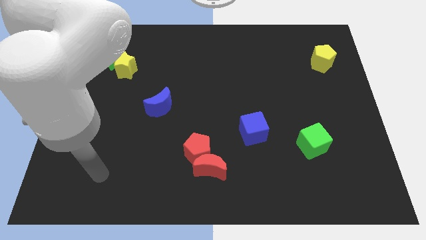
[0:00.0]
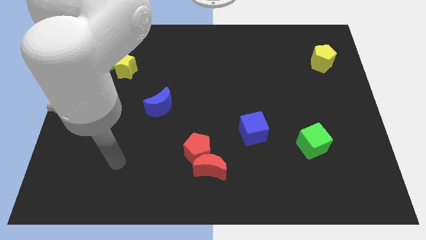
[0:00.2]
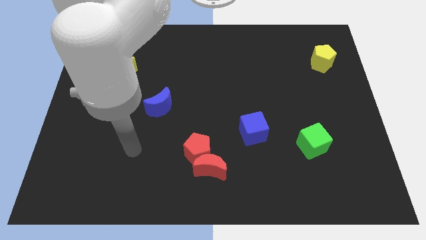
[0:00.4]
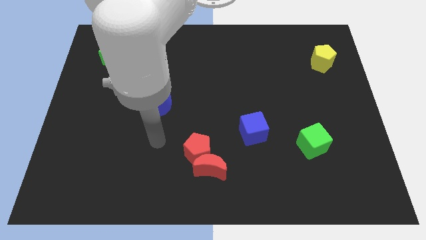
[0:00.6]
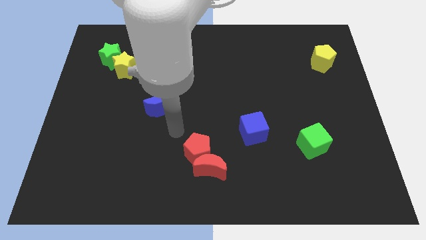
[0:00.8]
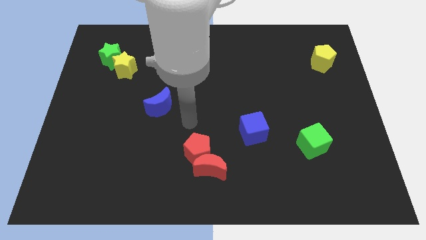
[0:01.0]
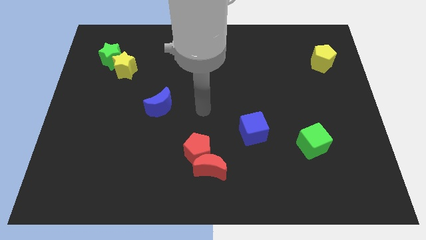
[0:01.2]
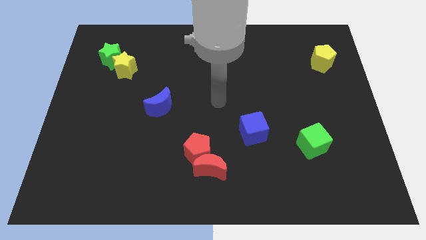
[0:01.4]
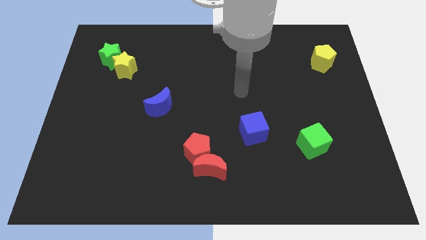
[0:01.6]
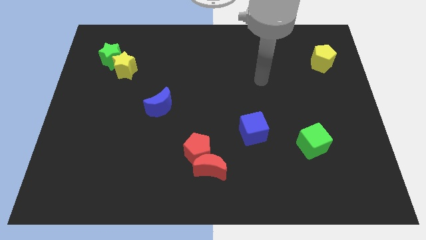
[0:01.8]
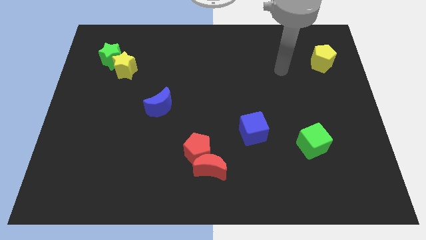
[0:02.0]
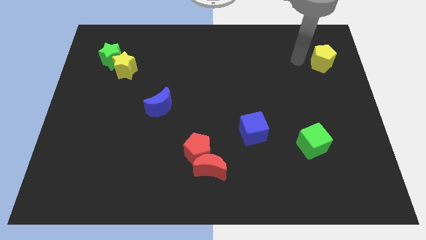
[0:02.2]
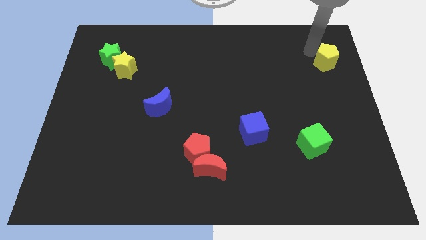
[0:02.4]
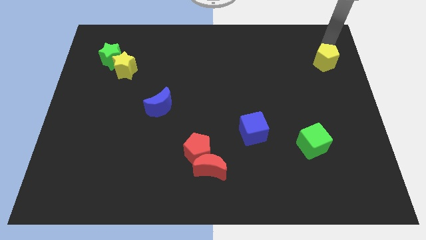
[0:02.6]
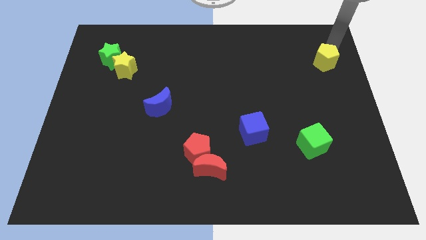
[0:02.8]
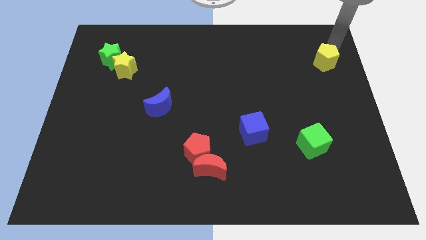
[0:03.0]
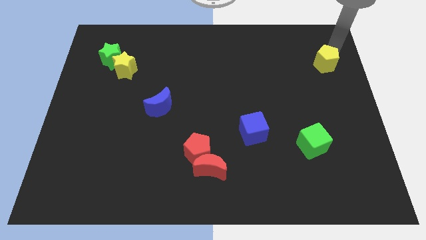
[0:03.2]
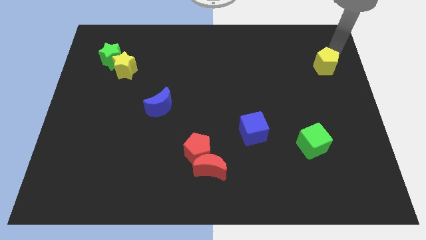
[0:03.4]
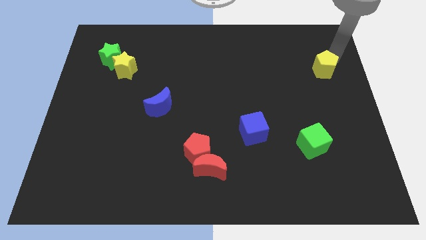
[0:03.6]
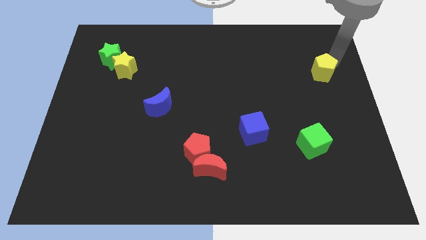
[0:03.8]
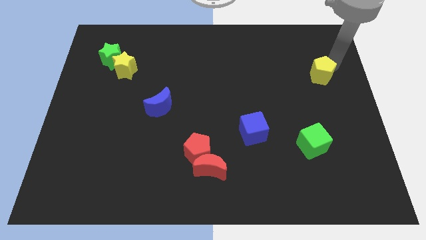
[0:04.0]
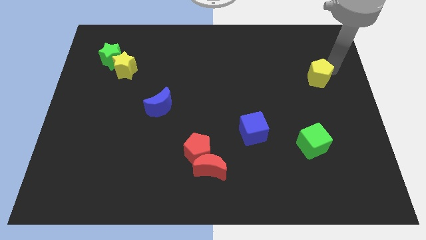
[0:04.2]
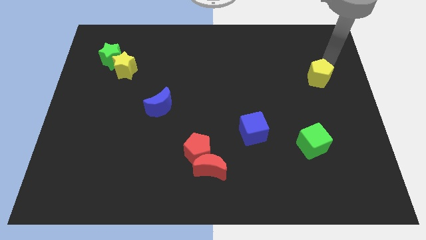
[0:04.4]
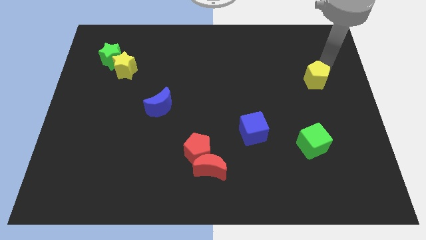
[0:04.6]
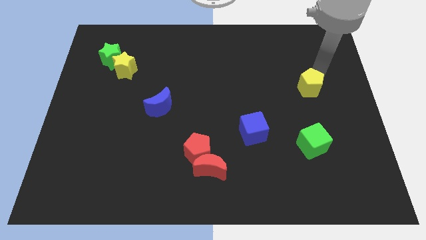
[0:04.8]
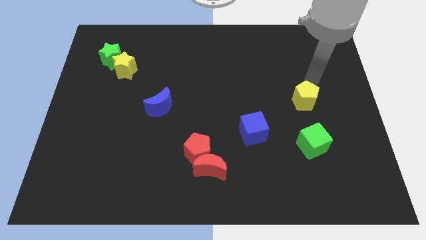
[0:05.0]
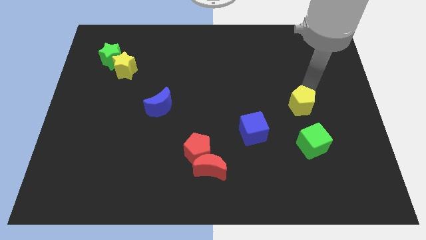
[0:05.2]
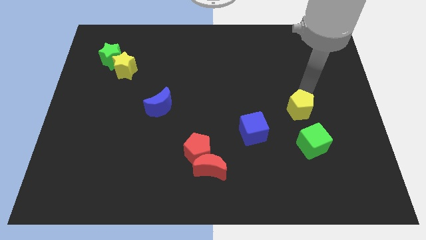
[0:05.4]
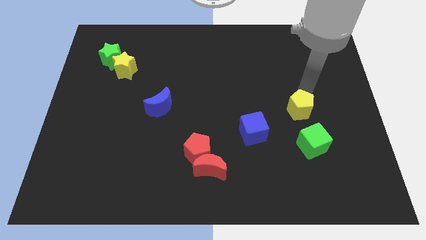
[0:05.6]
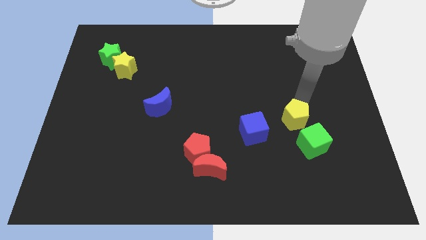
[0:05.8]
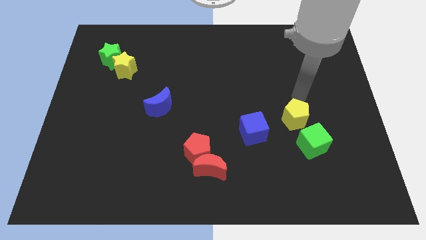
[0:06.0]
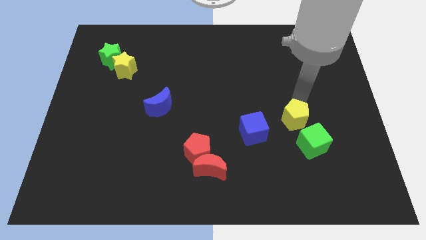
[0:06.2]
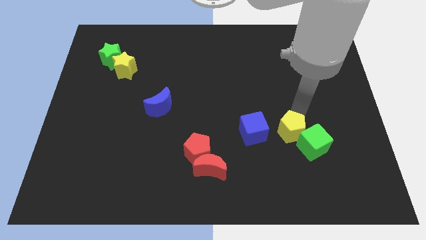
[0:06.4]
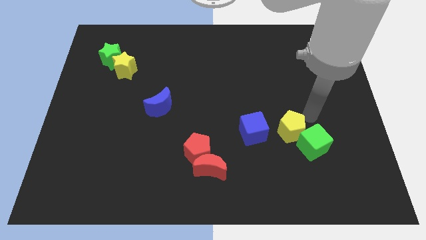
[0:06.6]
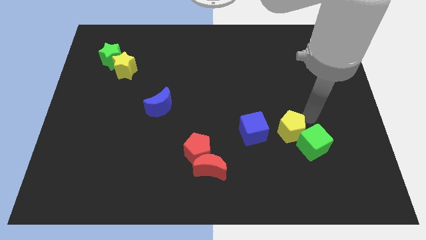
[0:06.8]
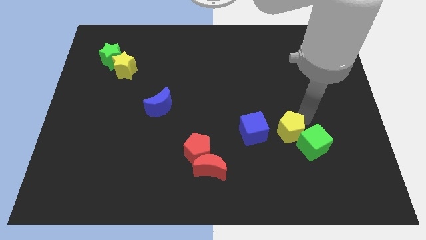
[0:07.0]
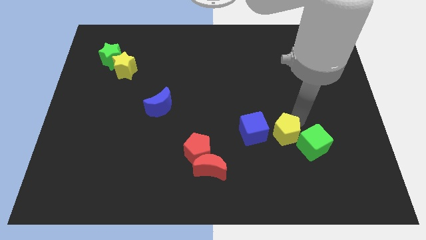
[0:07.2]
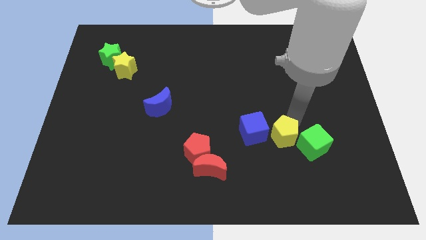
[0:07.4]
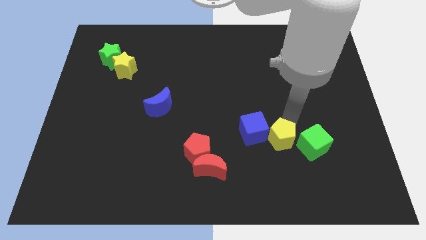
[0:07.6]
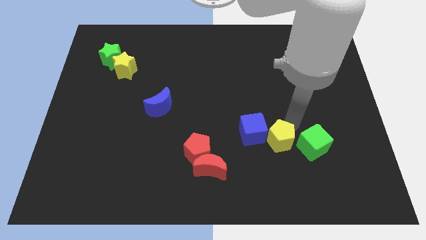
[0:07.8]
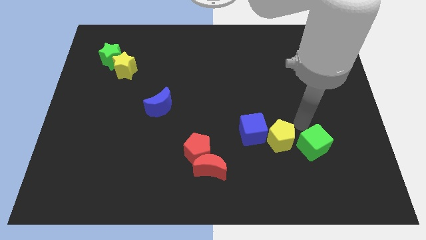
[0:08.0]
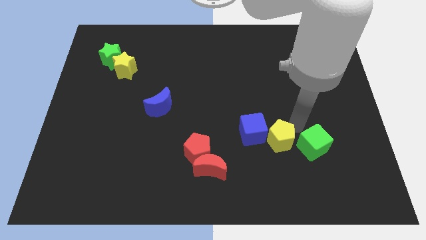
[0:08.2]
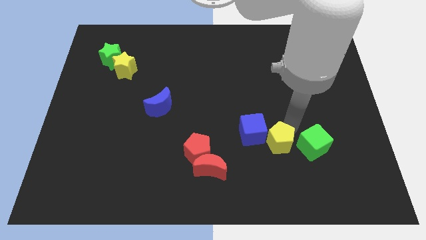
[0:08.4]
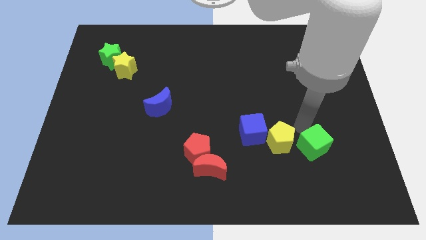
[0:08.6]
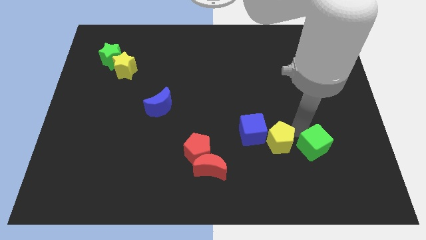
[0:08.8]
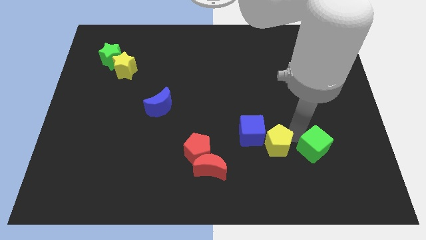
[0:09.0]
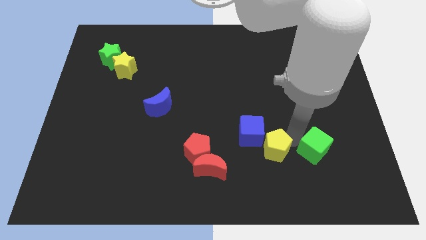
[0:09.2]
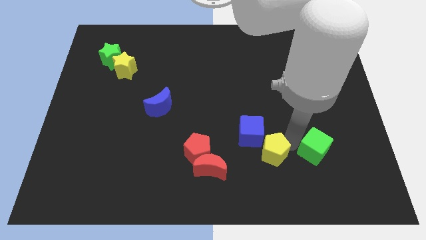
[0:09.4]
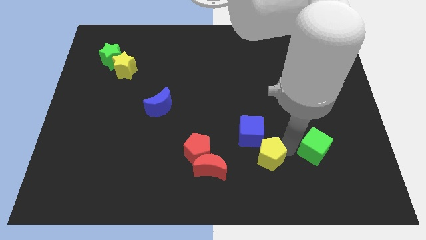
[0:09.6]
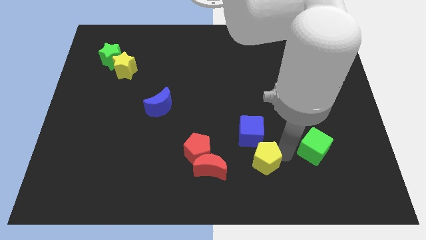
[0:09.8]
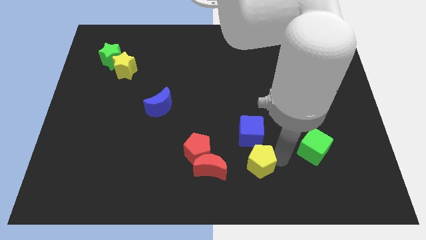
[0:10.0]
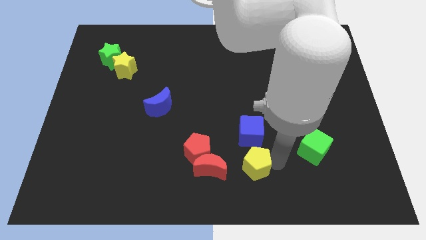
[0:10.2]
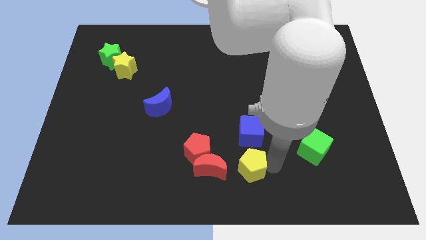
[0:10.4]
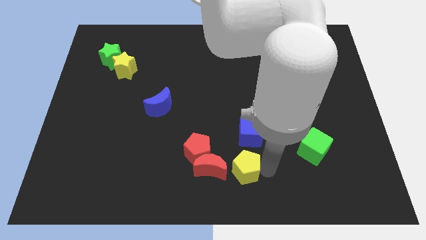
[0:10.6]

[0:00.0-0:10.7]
put the yellow pentagon to the bottom right side of the red pentagon
